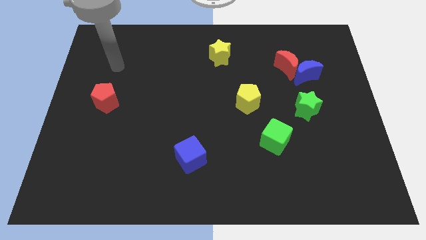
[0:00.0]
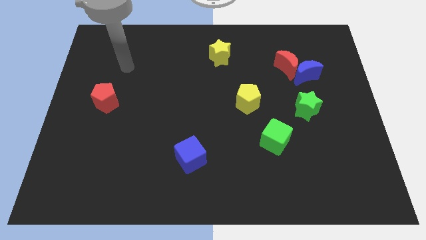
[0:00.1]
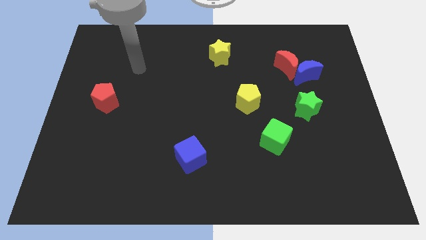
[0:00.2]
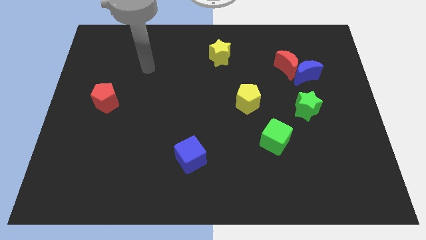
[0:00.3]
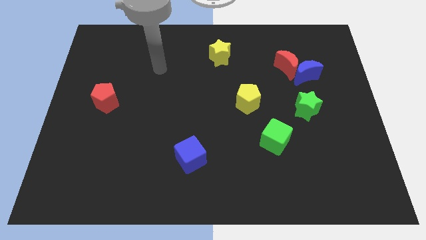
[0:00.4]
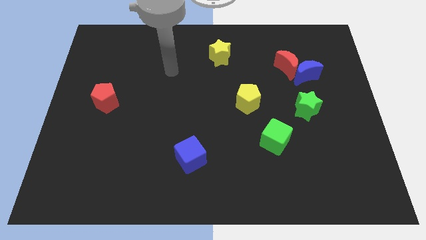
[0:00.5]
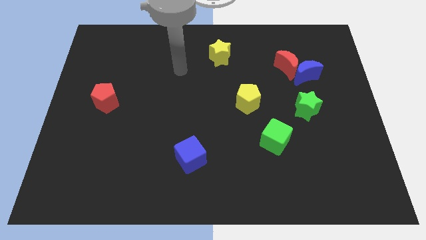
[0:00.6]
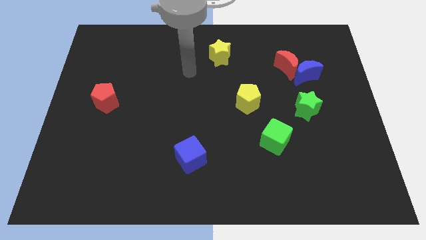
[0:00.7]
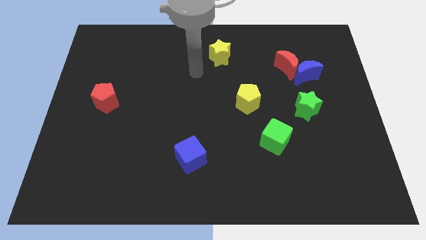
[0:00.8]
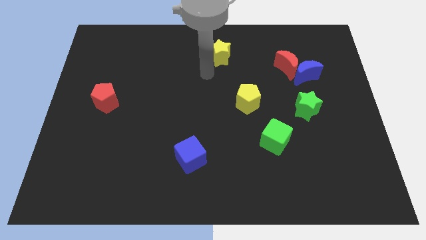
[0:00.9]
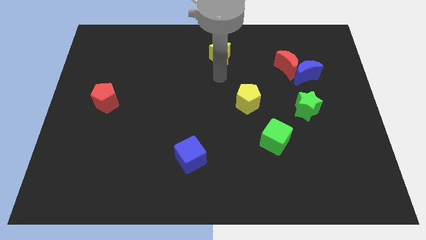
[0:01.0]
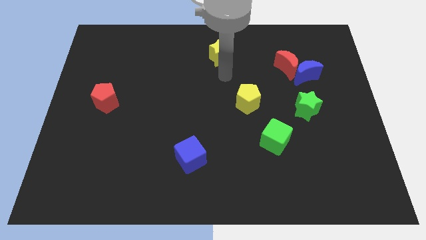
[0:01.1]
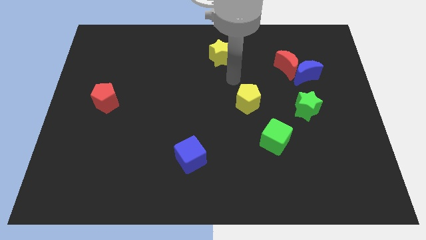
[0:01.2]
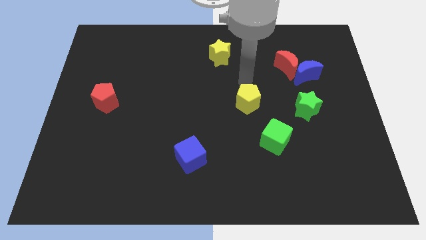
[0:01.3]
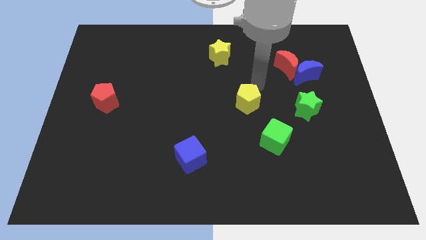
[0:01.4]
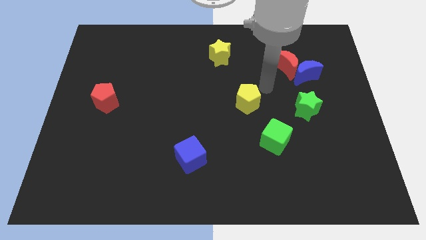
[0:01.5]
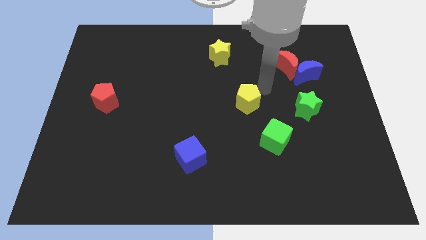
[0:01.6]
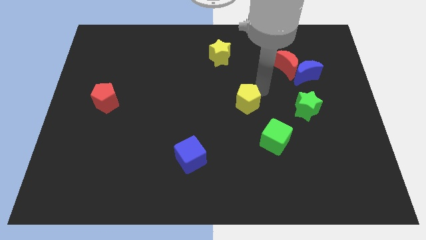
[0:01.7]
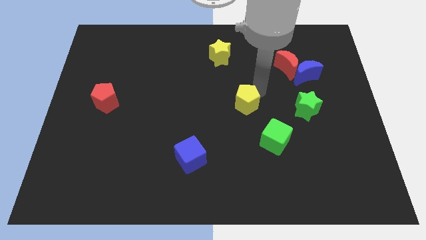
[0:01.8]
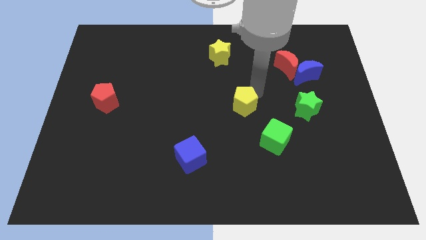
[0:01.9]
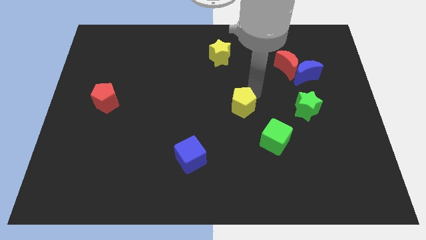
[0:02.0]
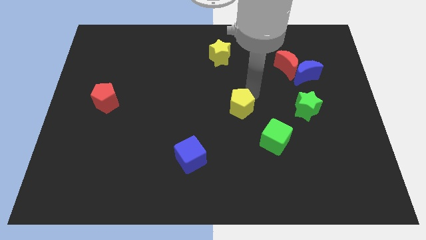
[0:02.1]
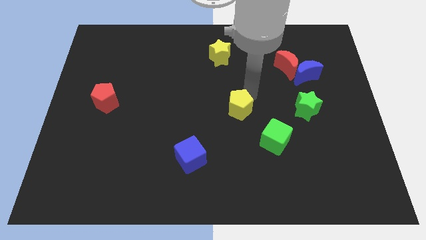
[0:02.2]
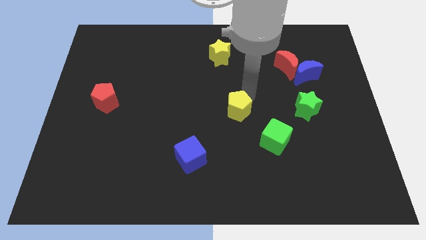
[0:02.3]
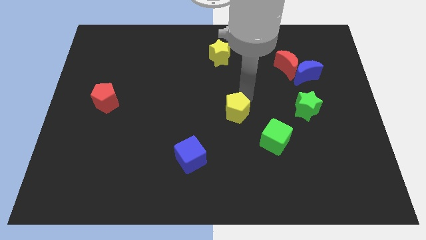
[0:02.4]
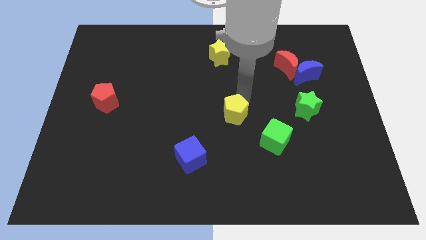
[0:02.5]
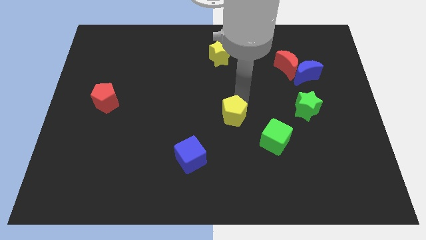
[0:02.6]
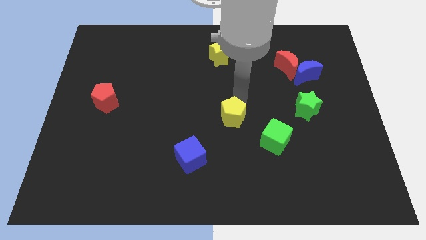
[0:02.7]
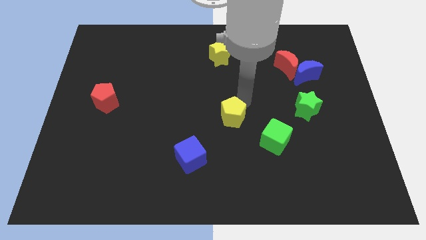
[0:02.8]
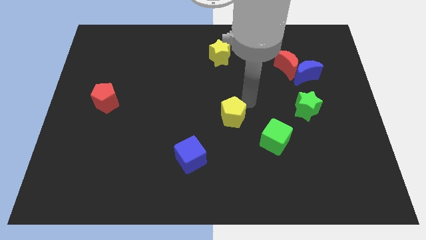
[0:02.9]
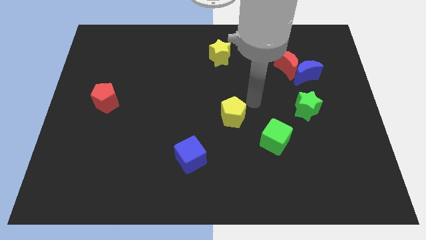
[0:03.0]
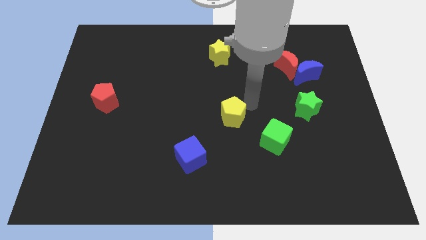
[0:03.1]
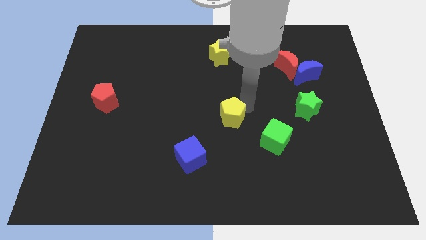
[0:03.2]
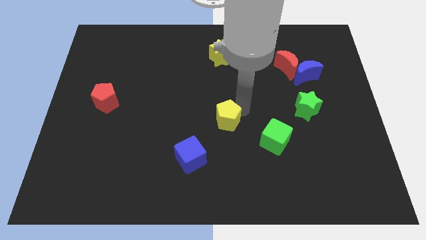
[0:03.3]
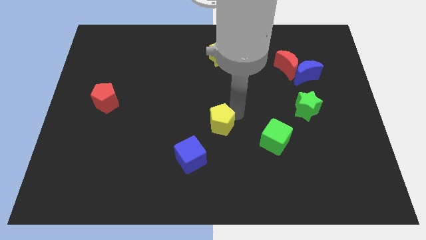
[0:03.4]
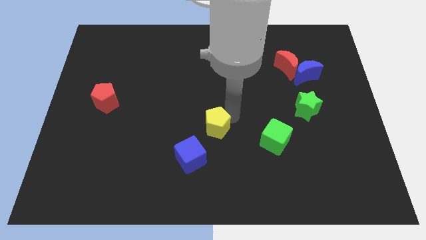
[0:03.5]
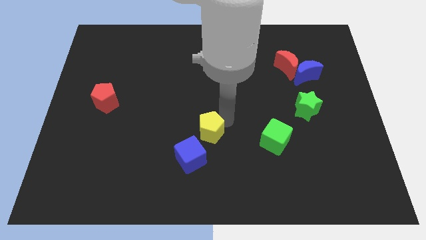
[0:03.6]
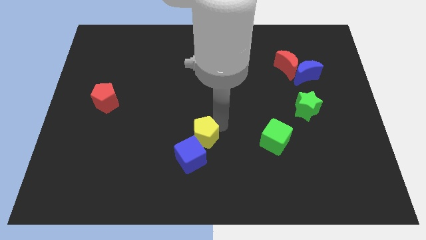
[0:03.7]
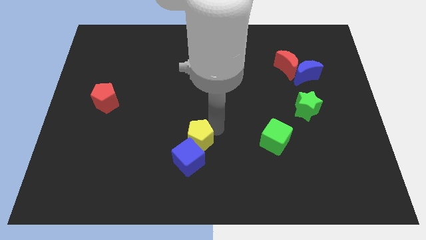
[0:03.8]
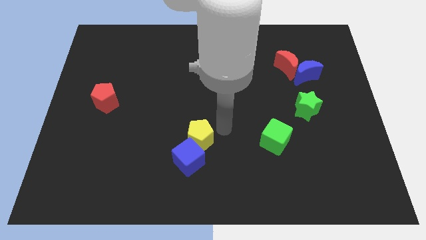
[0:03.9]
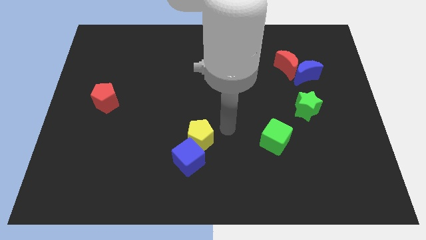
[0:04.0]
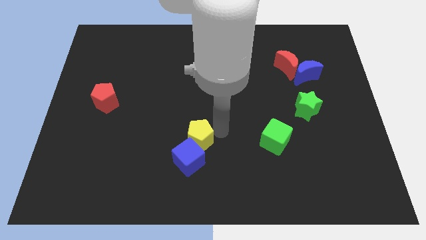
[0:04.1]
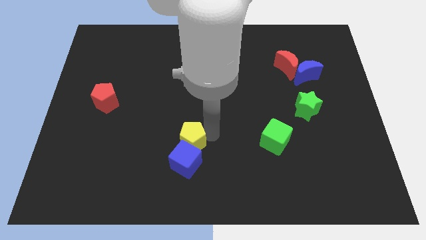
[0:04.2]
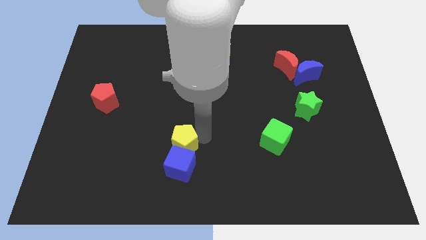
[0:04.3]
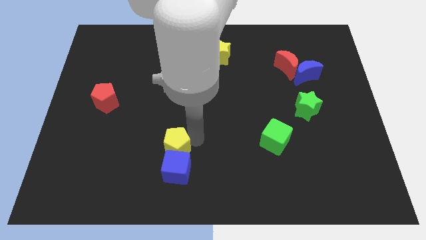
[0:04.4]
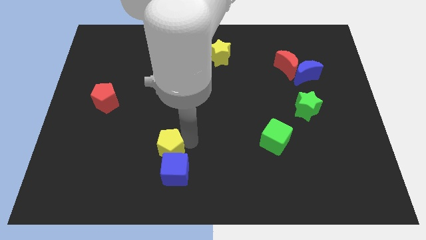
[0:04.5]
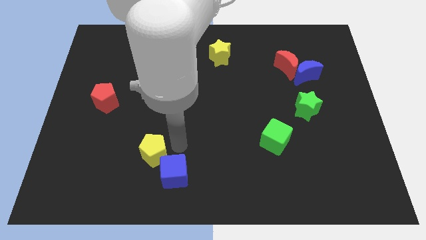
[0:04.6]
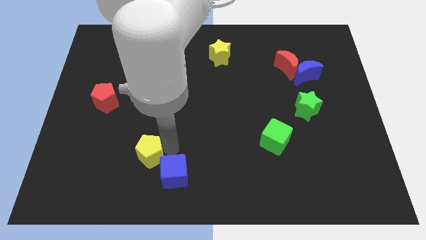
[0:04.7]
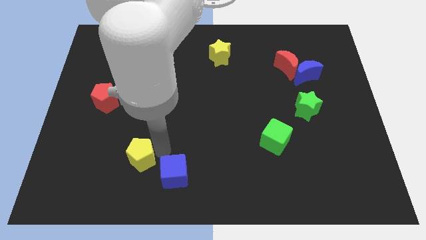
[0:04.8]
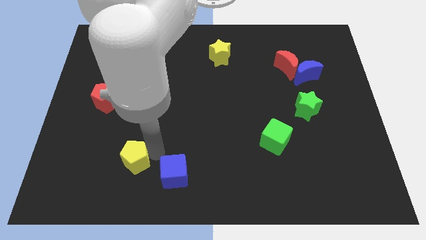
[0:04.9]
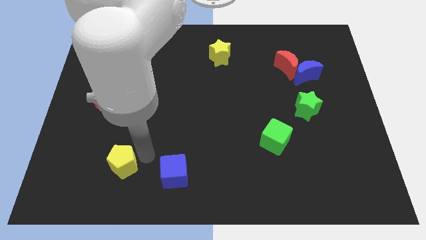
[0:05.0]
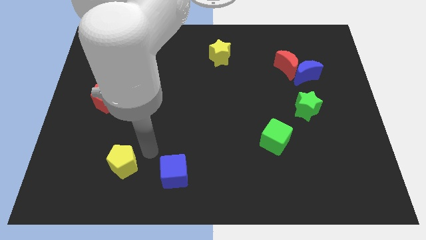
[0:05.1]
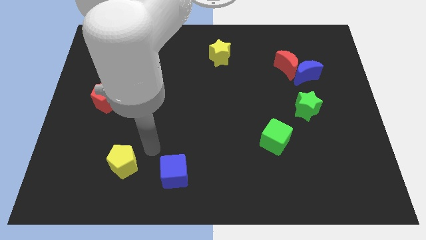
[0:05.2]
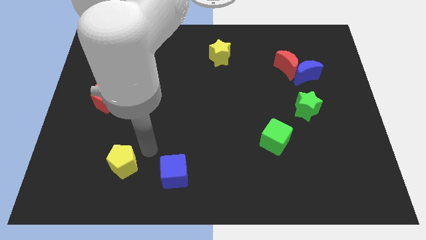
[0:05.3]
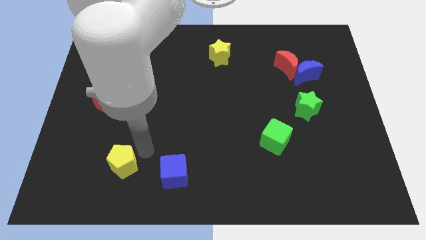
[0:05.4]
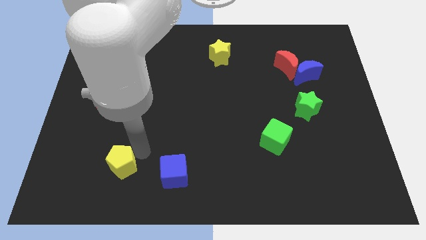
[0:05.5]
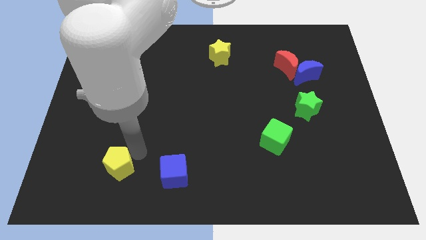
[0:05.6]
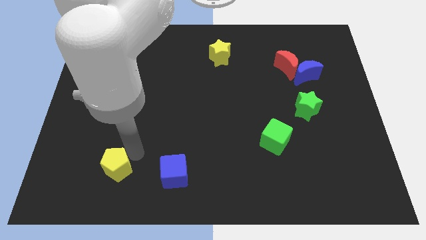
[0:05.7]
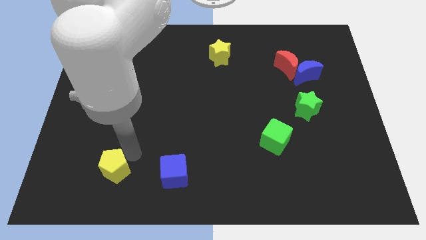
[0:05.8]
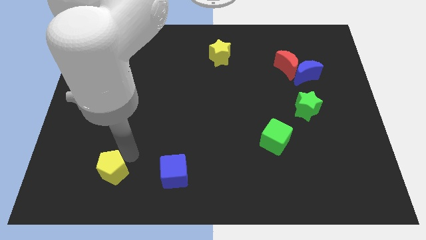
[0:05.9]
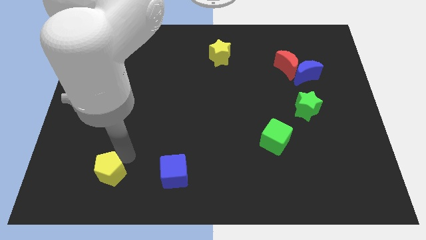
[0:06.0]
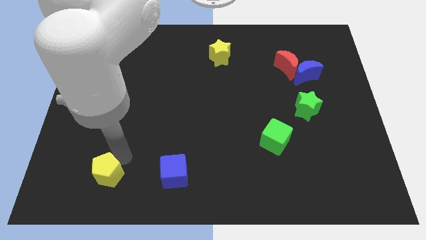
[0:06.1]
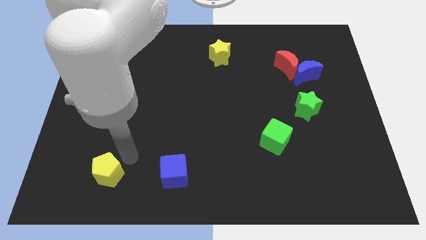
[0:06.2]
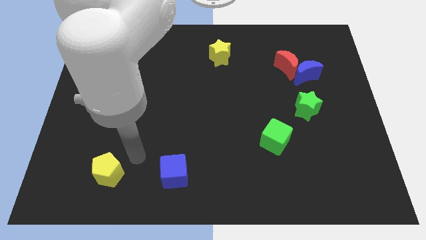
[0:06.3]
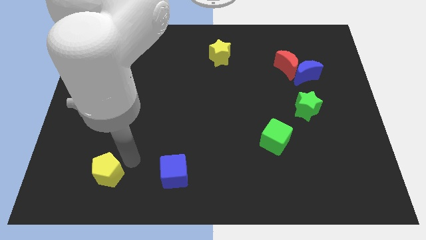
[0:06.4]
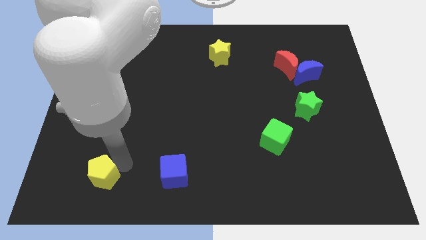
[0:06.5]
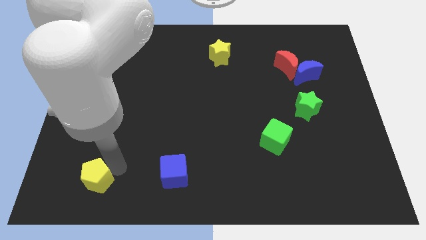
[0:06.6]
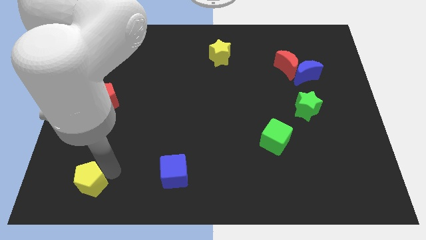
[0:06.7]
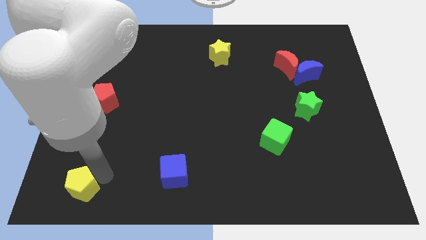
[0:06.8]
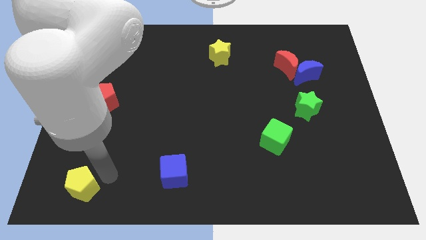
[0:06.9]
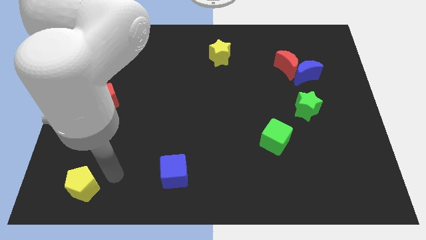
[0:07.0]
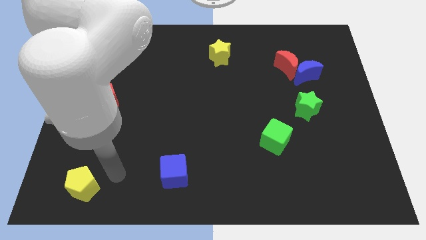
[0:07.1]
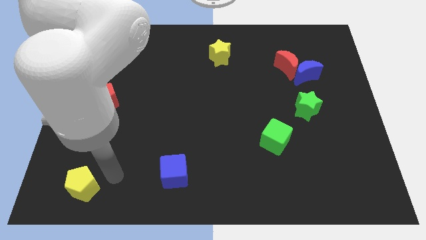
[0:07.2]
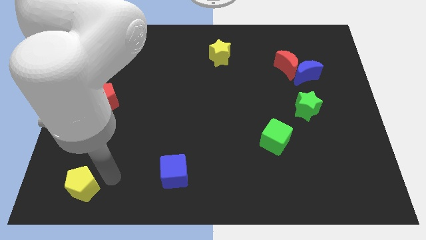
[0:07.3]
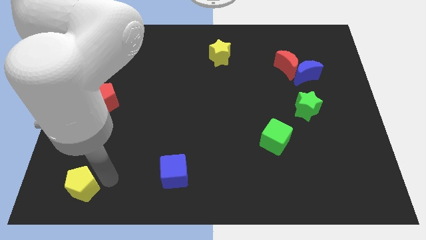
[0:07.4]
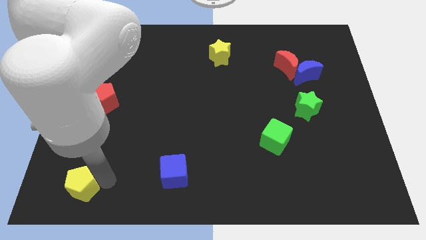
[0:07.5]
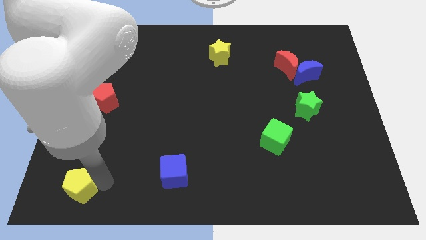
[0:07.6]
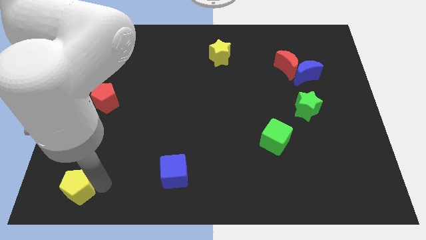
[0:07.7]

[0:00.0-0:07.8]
move the yellow pentagon to the bottom left of the board
